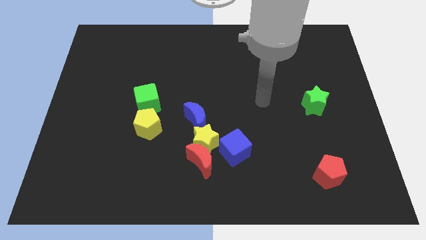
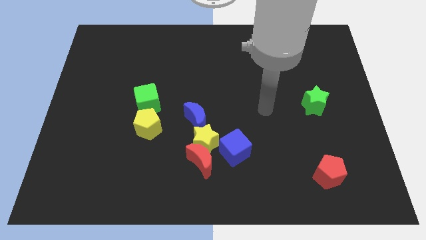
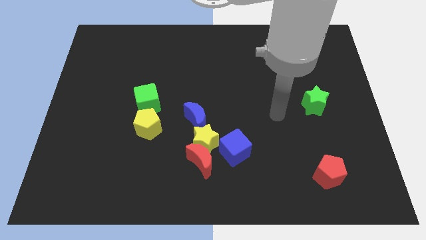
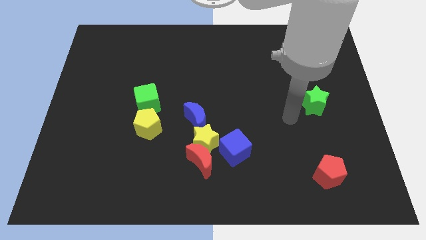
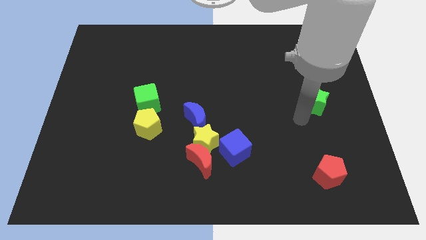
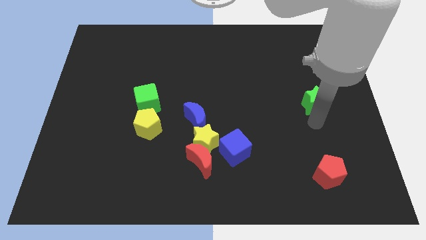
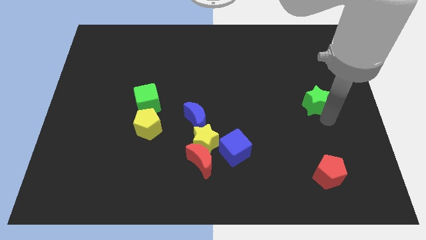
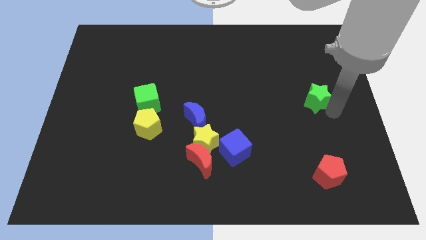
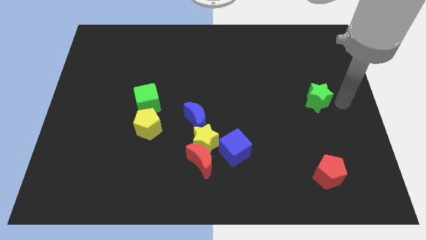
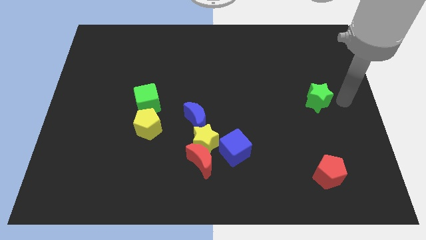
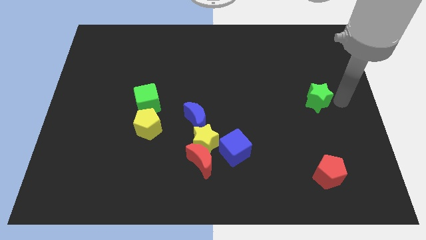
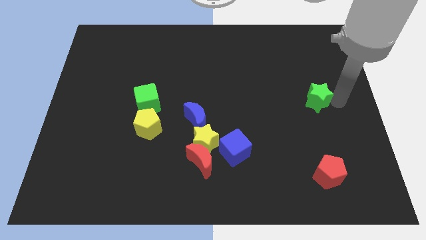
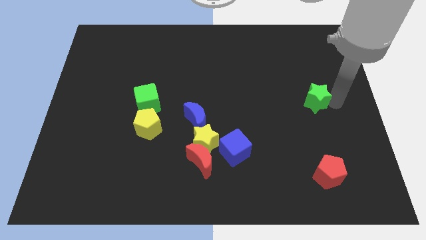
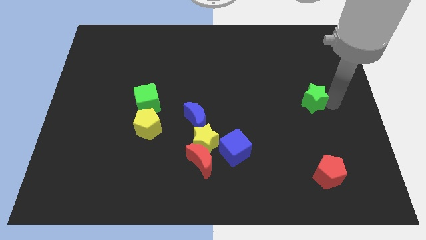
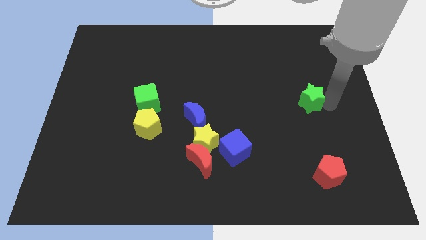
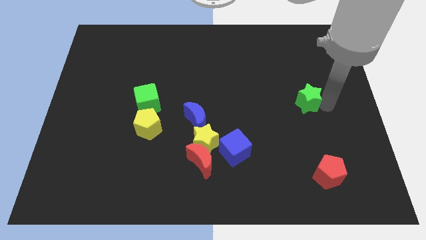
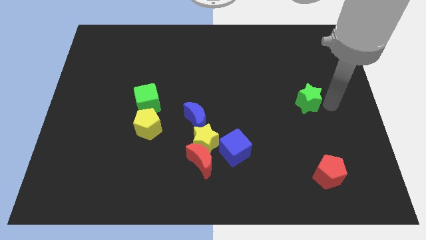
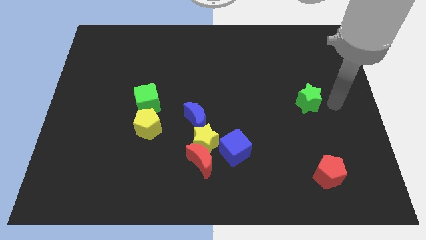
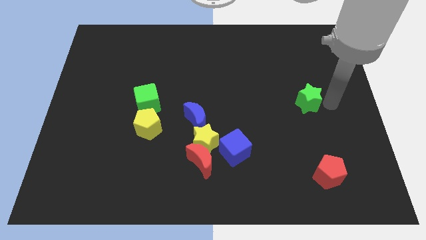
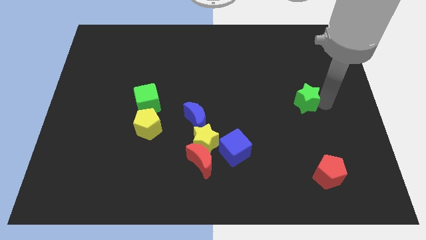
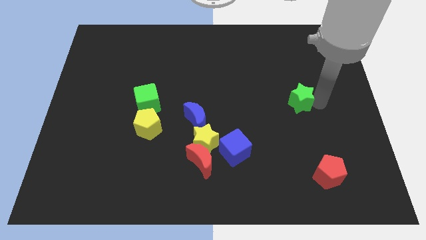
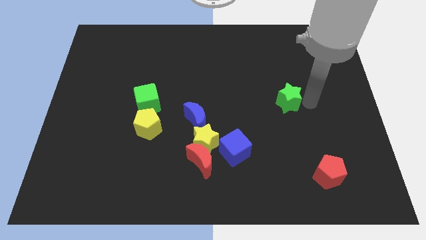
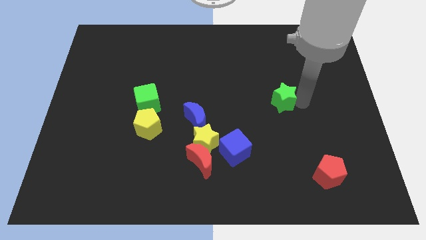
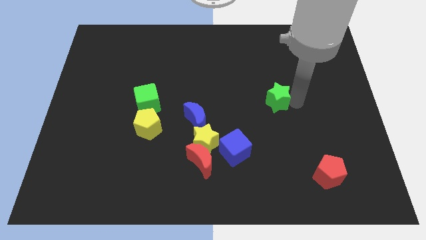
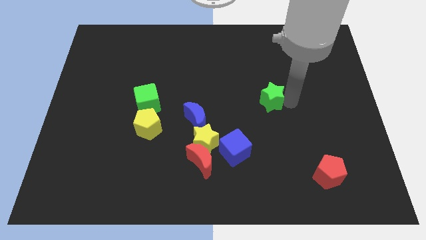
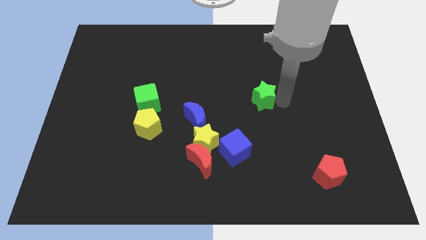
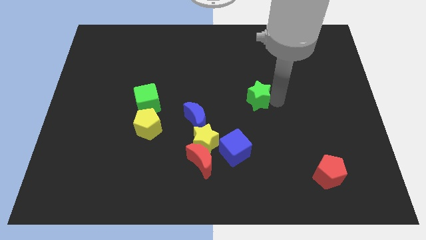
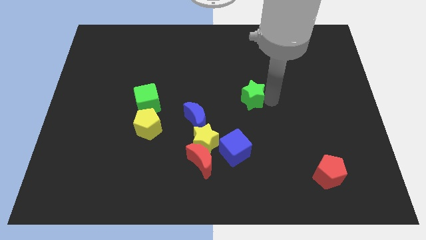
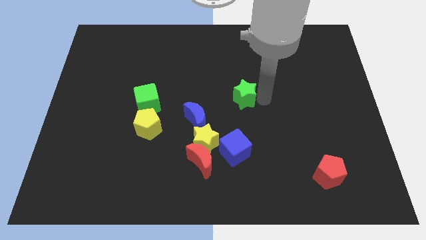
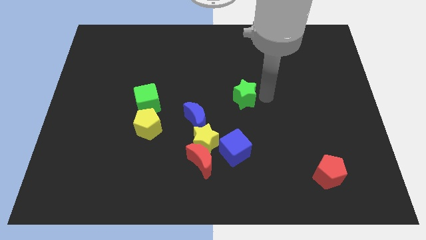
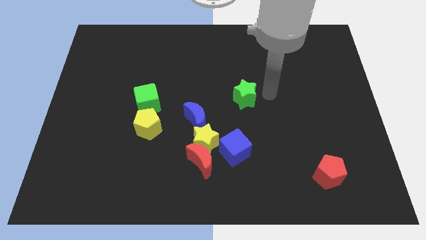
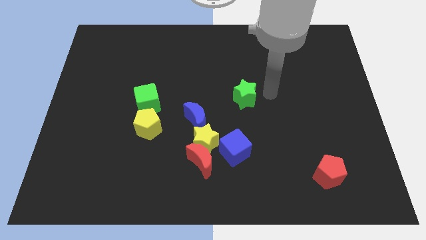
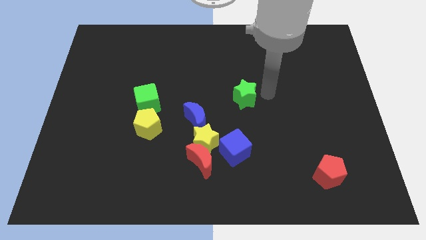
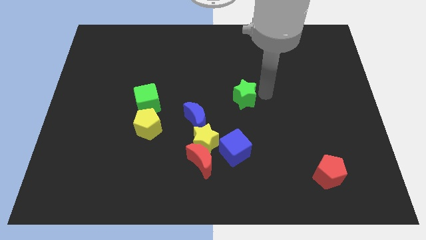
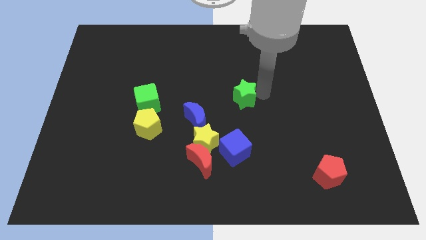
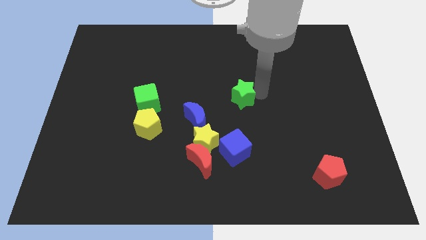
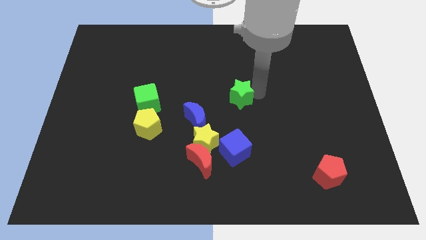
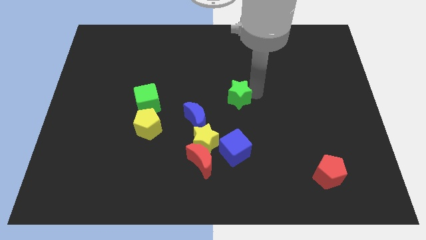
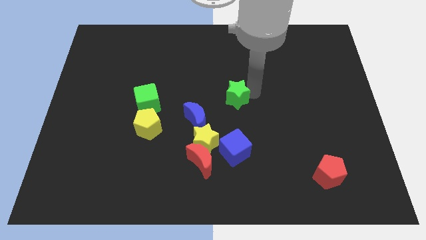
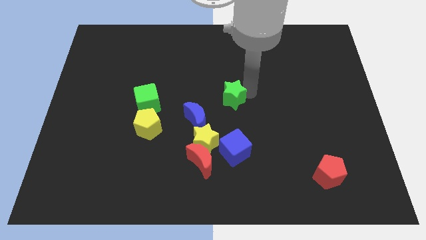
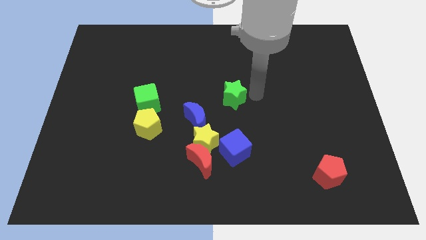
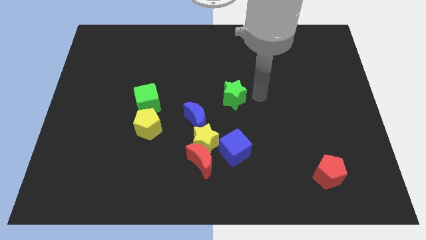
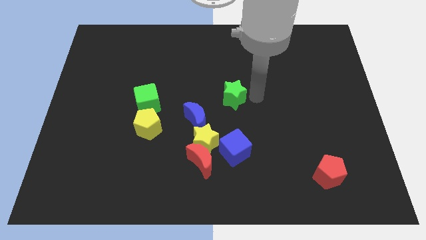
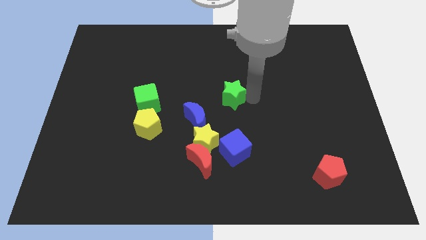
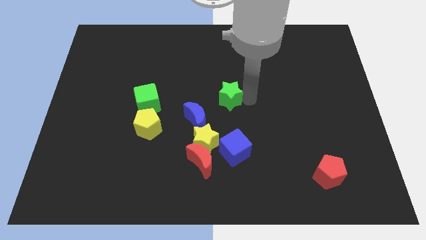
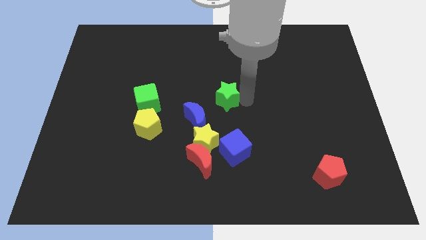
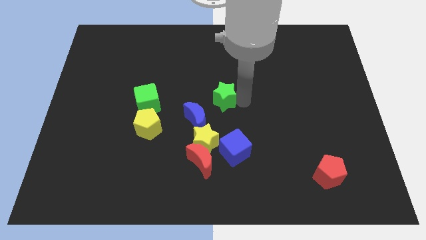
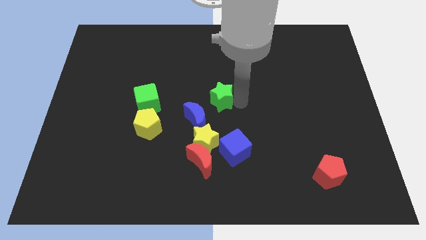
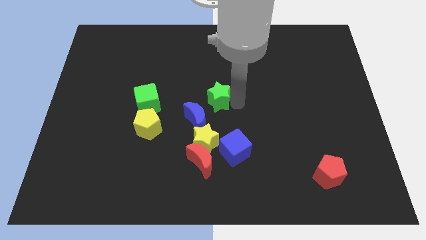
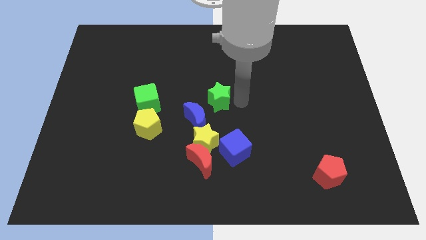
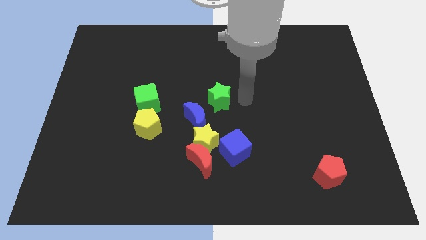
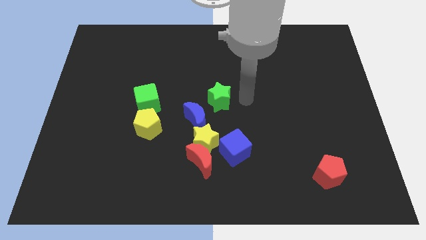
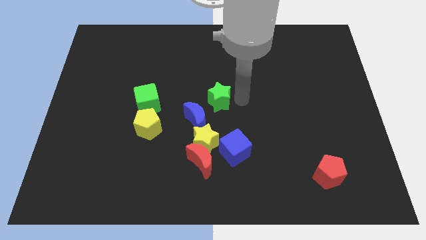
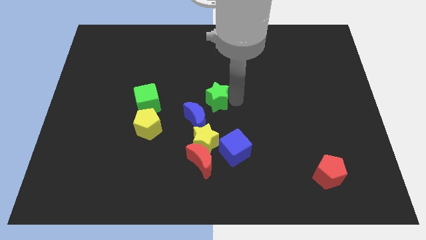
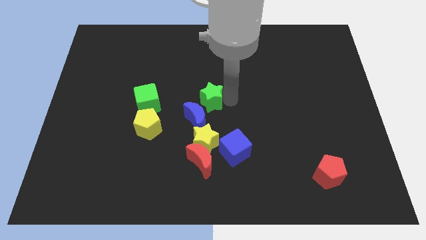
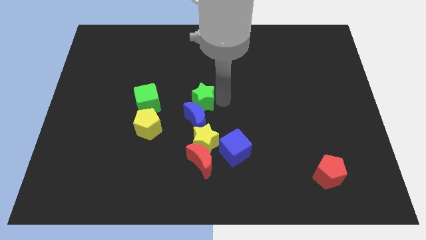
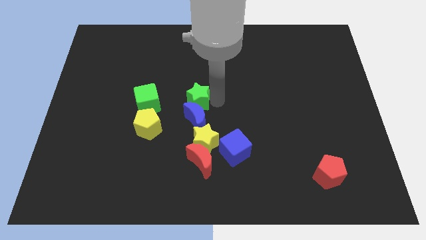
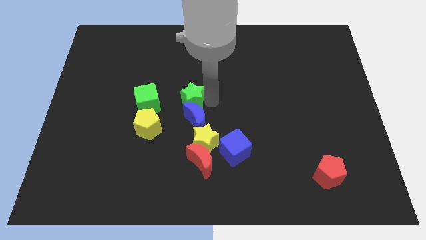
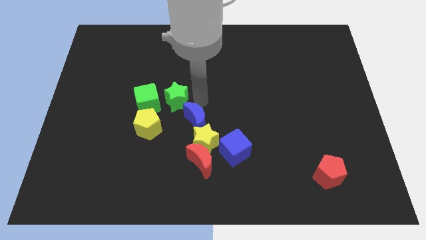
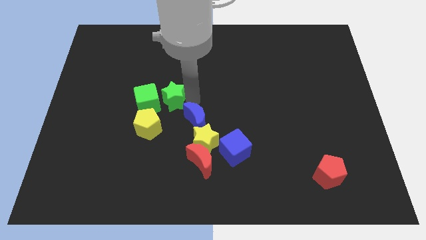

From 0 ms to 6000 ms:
put the green star to the green cube

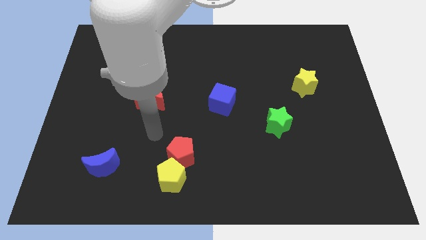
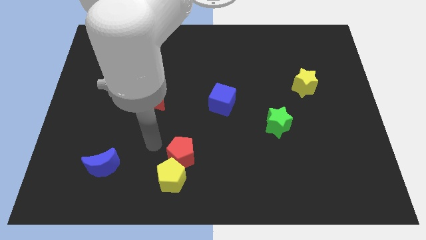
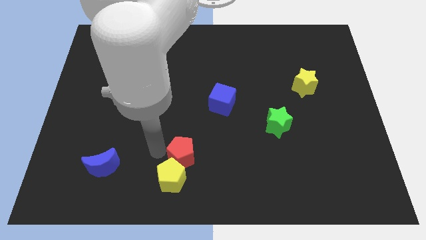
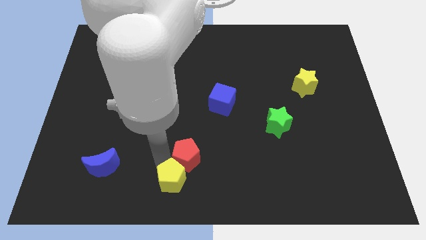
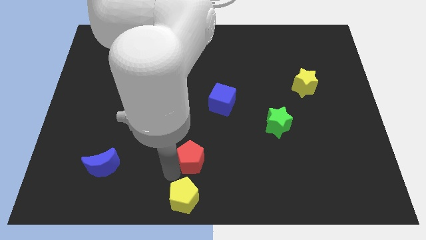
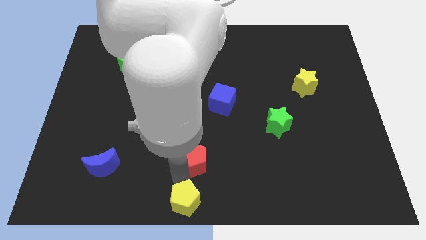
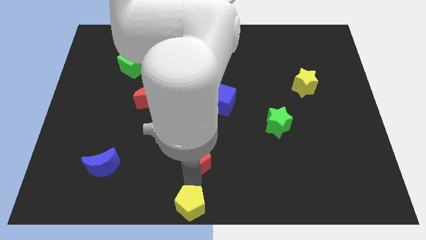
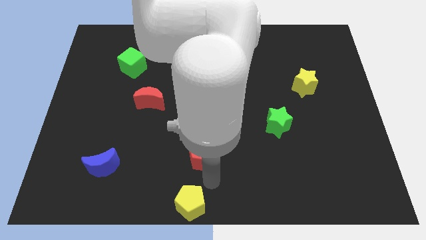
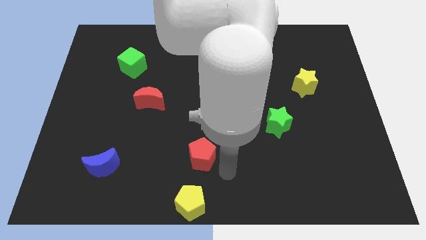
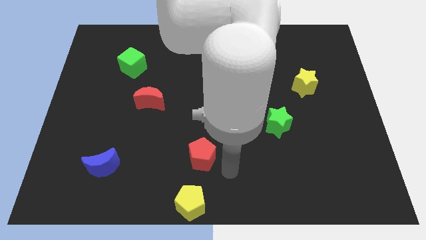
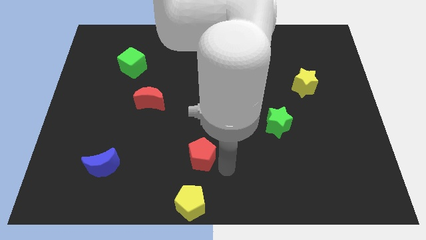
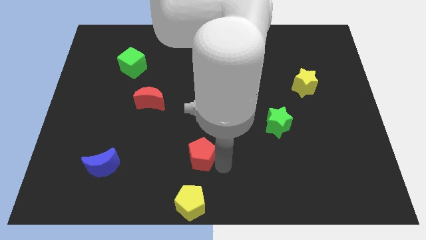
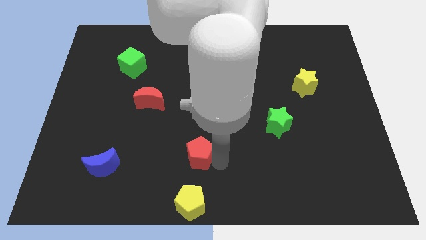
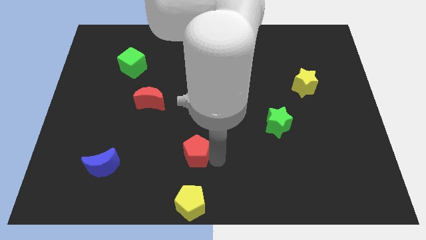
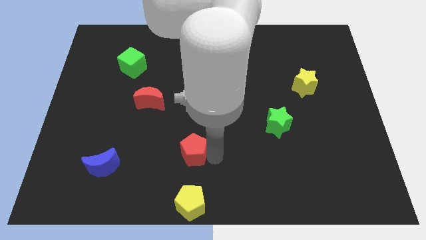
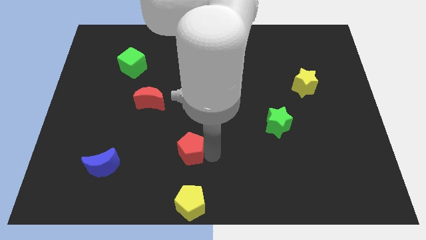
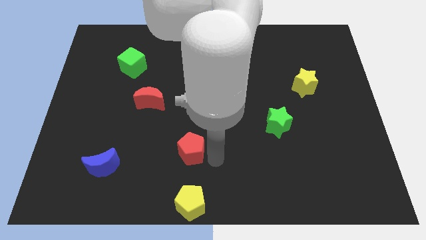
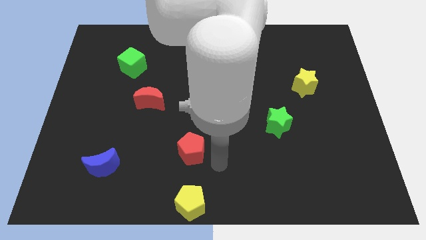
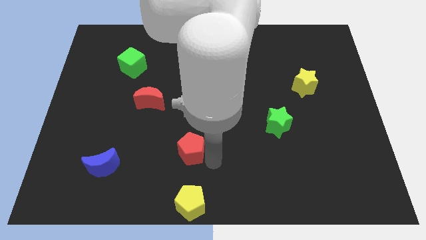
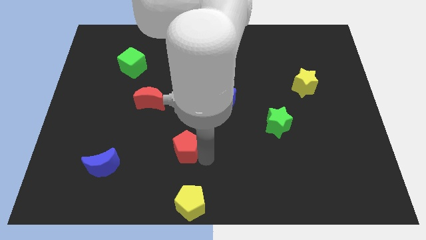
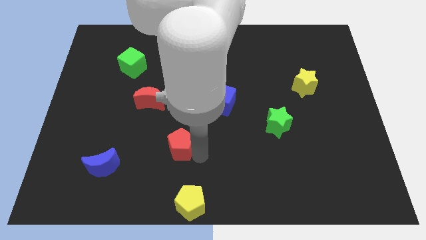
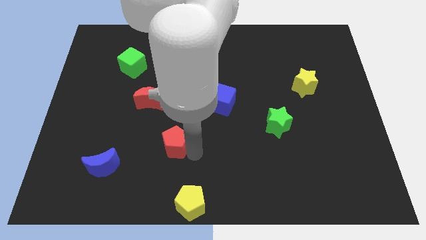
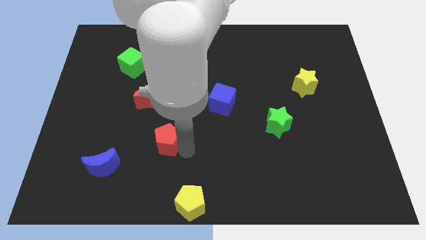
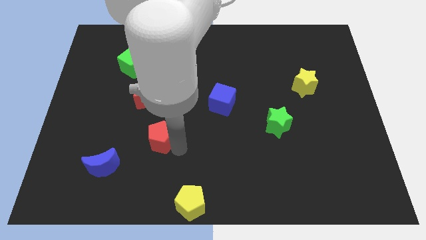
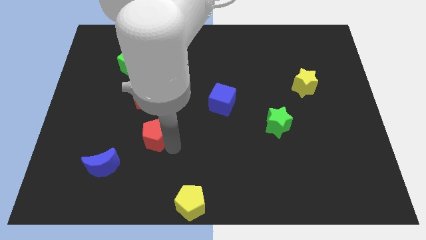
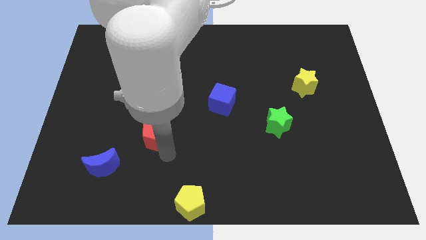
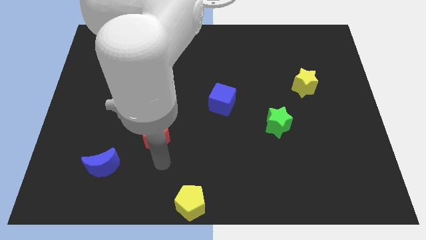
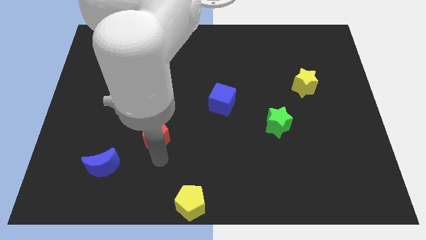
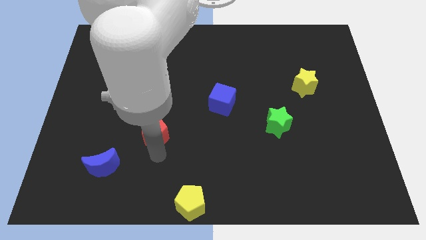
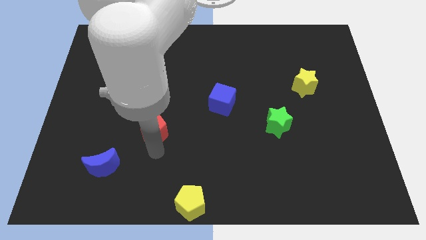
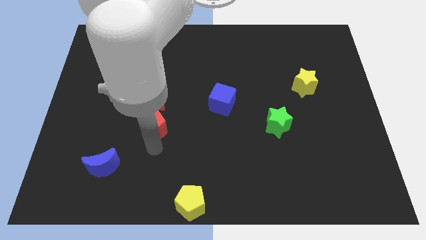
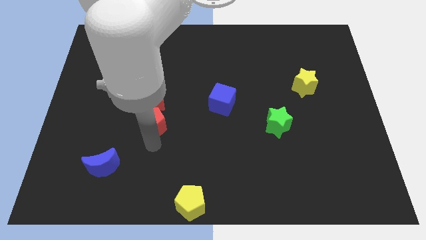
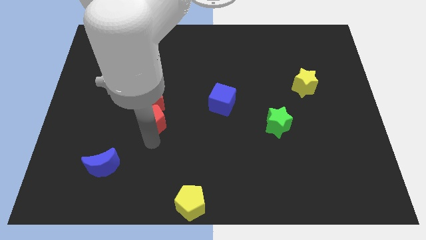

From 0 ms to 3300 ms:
put the red pentagon next to the red moon
